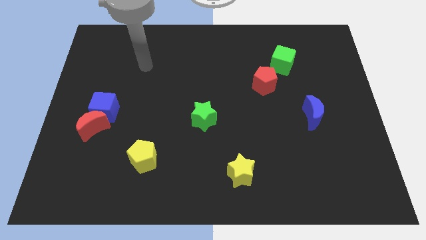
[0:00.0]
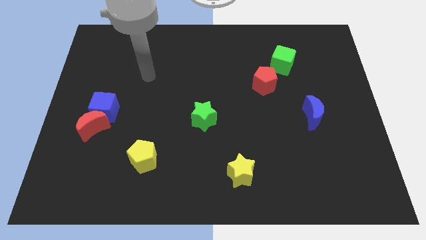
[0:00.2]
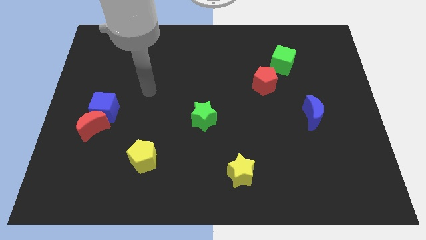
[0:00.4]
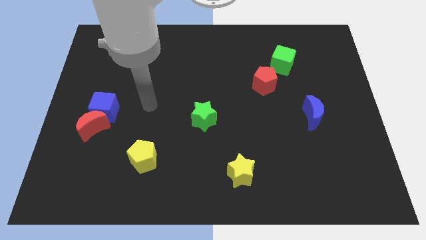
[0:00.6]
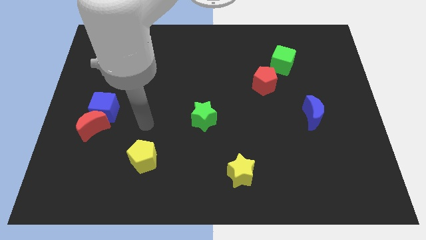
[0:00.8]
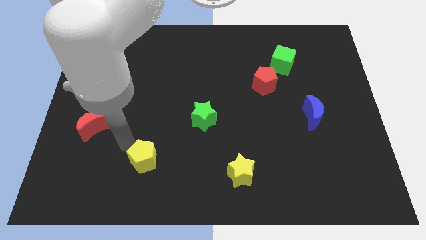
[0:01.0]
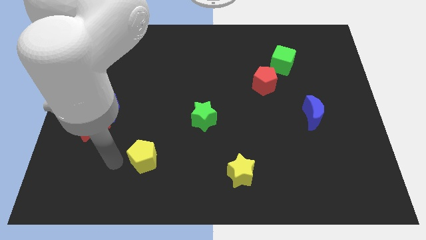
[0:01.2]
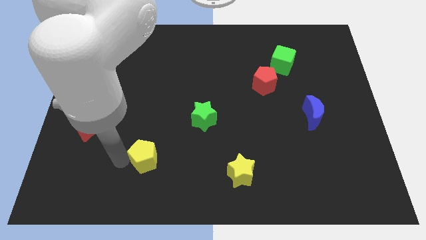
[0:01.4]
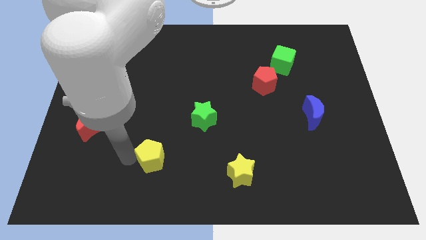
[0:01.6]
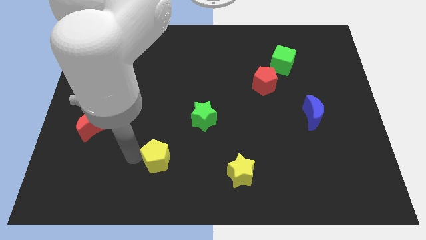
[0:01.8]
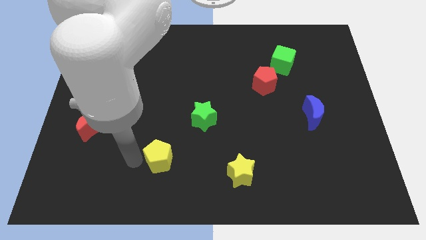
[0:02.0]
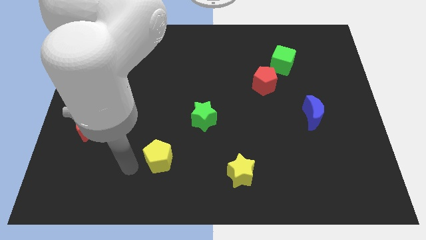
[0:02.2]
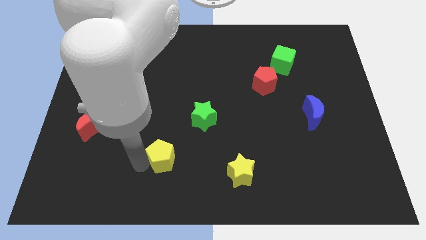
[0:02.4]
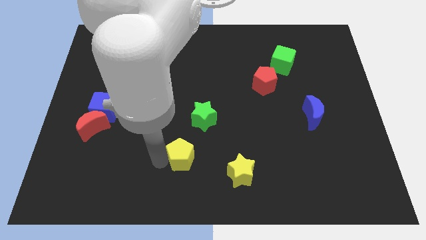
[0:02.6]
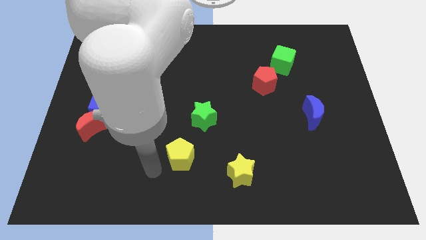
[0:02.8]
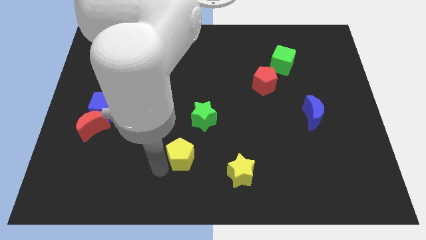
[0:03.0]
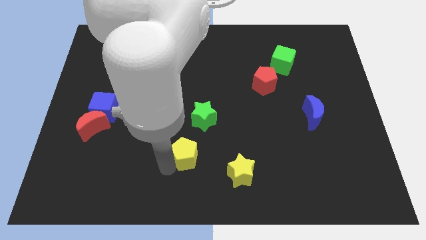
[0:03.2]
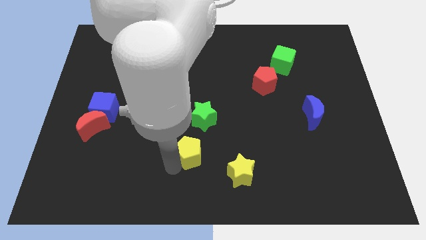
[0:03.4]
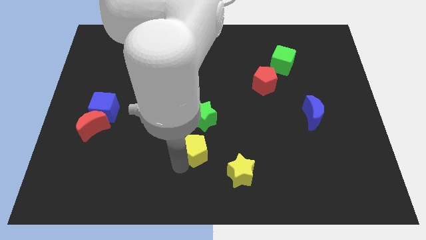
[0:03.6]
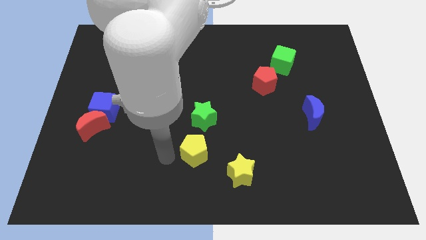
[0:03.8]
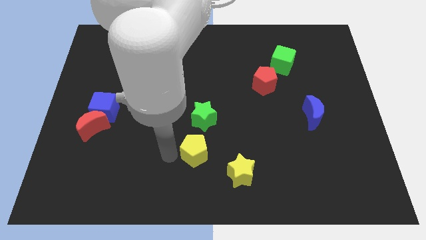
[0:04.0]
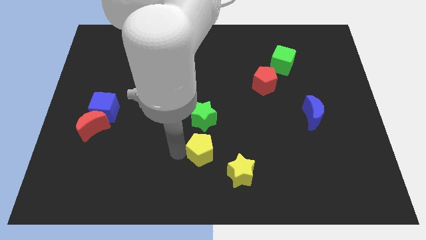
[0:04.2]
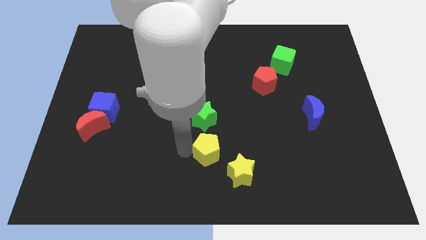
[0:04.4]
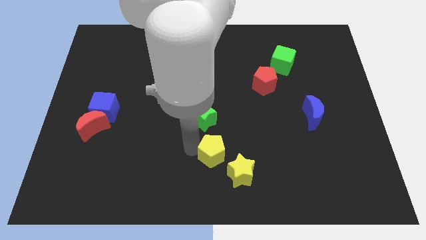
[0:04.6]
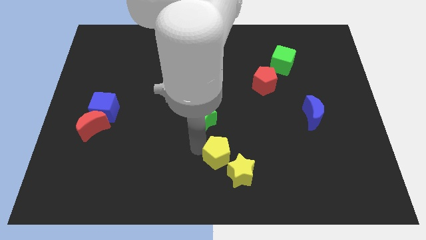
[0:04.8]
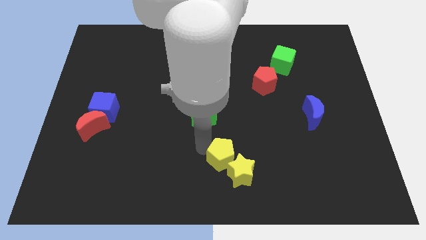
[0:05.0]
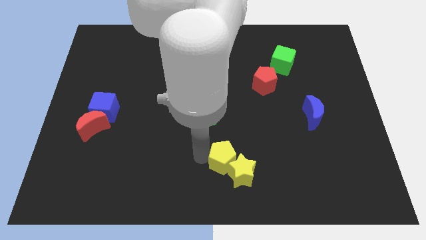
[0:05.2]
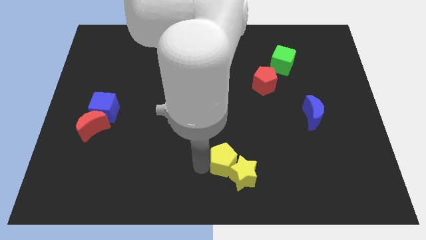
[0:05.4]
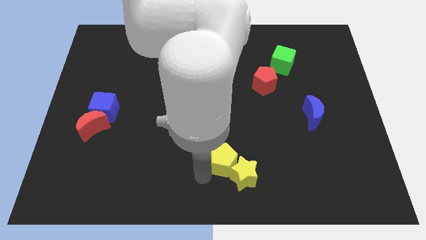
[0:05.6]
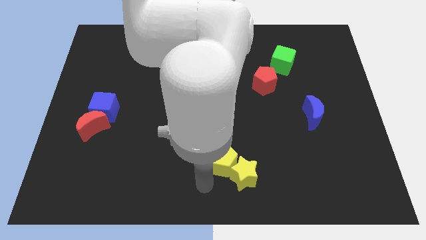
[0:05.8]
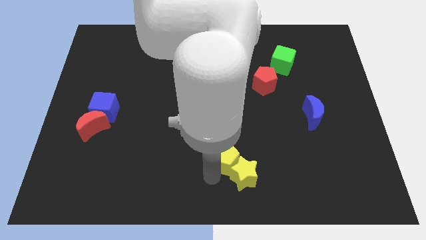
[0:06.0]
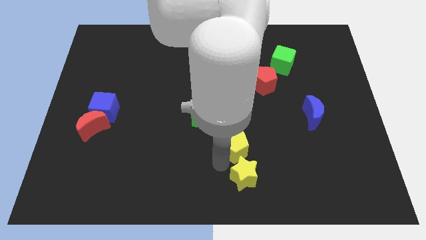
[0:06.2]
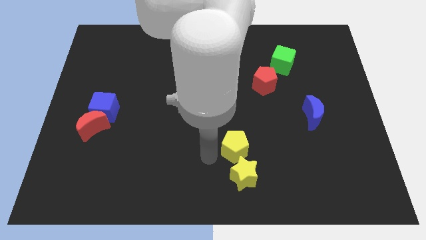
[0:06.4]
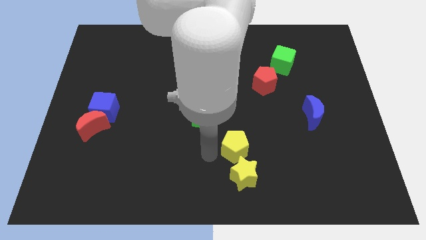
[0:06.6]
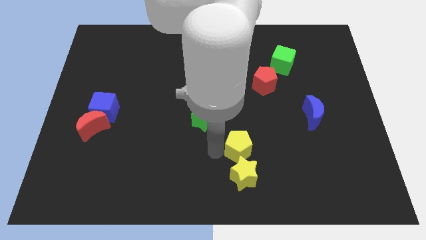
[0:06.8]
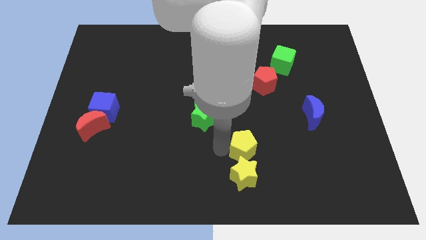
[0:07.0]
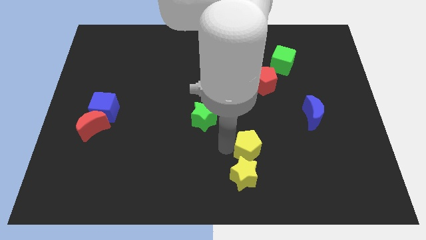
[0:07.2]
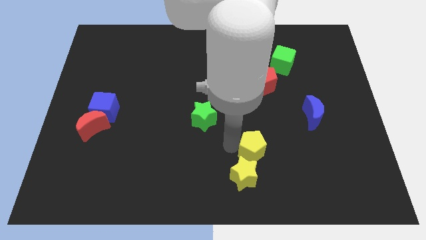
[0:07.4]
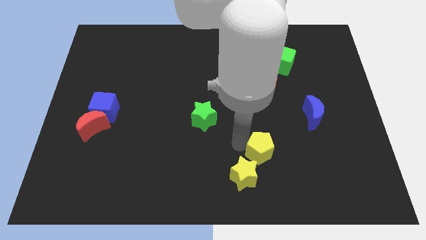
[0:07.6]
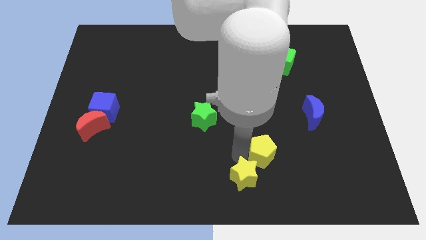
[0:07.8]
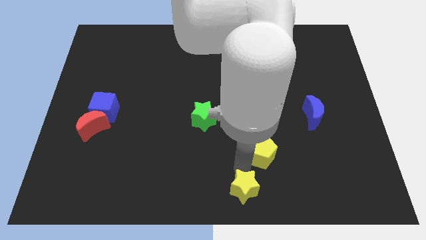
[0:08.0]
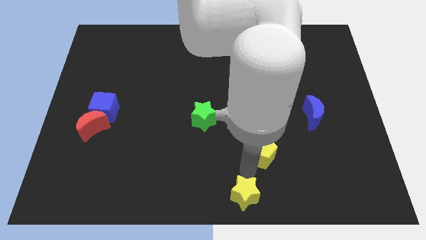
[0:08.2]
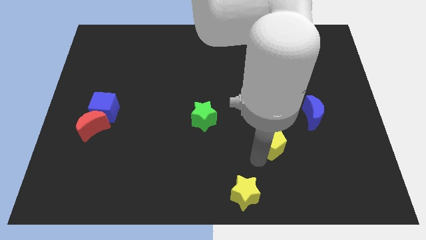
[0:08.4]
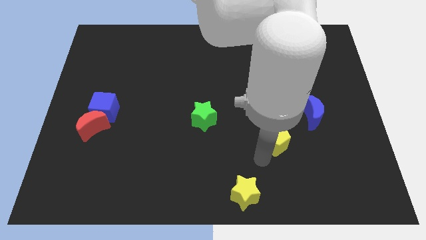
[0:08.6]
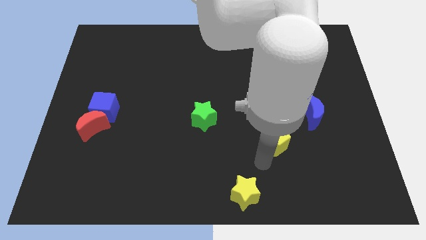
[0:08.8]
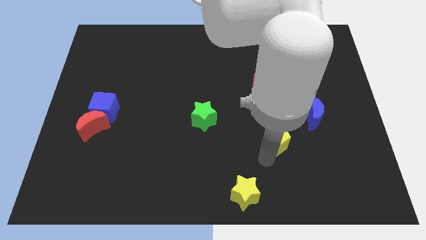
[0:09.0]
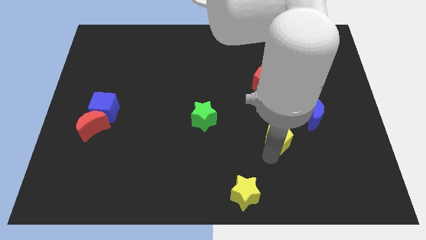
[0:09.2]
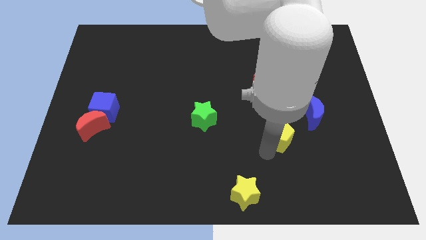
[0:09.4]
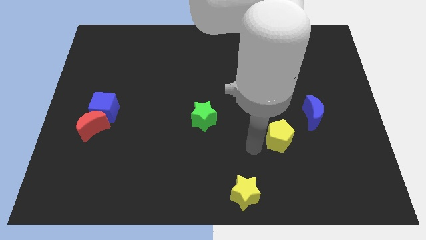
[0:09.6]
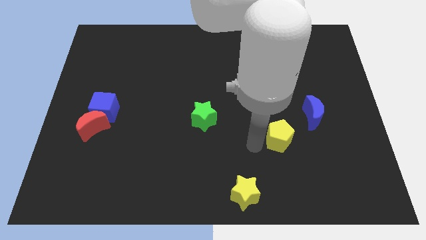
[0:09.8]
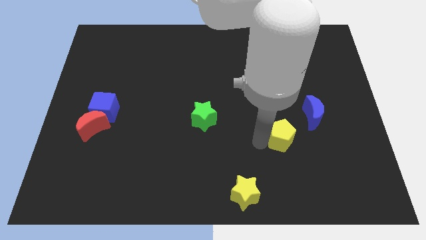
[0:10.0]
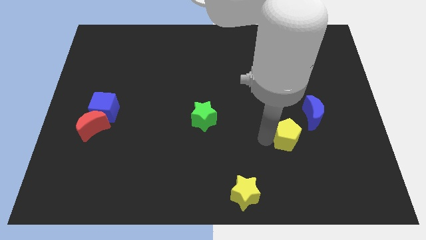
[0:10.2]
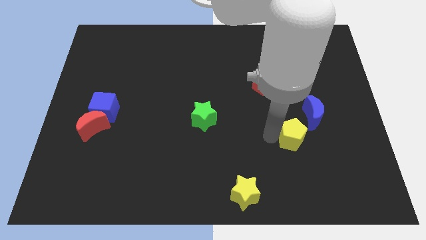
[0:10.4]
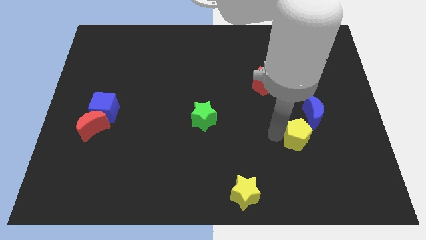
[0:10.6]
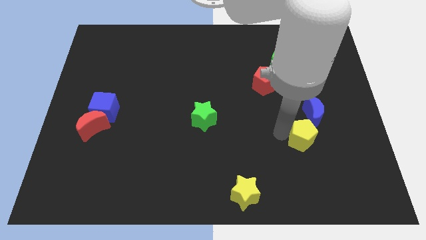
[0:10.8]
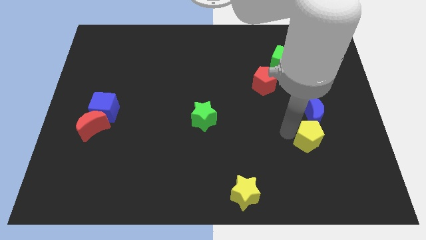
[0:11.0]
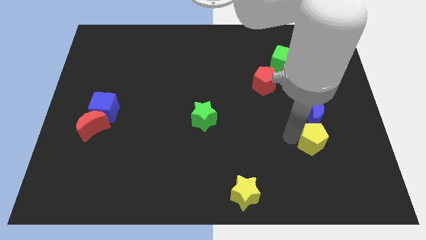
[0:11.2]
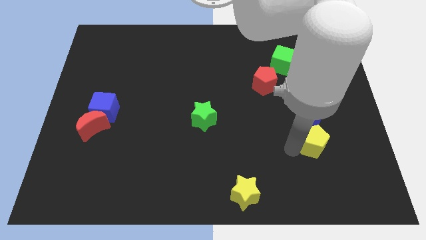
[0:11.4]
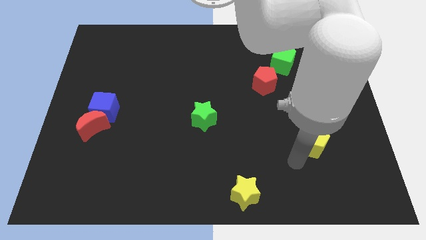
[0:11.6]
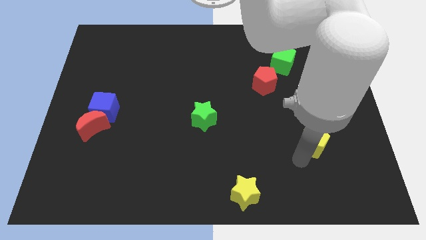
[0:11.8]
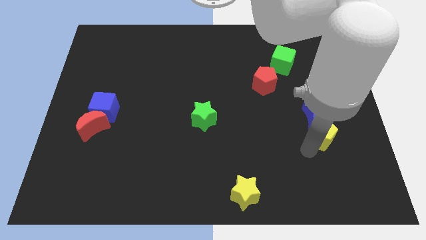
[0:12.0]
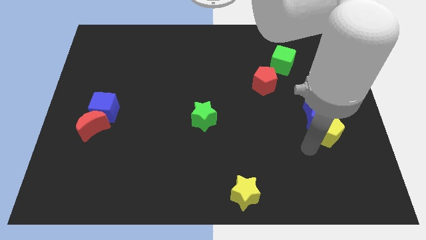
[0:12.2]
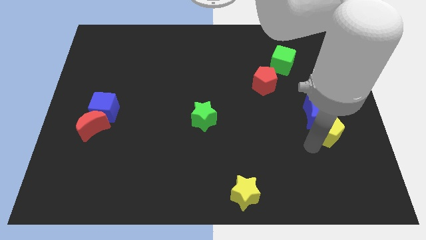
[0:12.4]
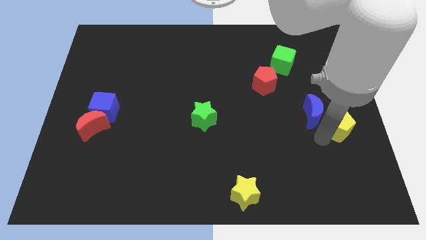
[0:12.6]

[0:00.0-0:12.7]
slide the yellow pentagon to the center right
